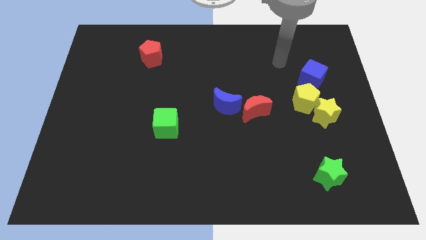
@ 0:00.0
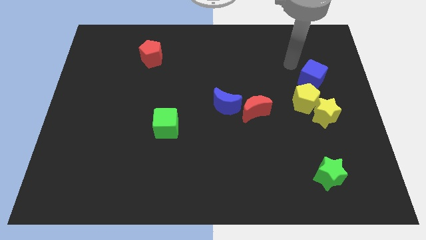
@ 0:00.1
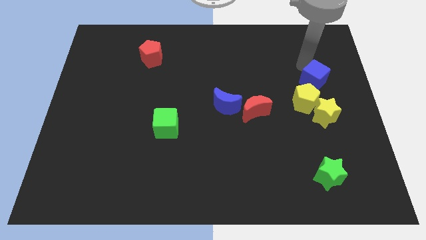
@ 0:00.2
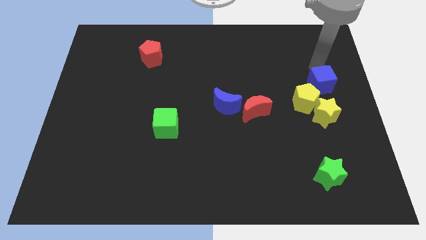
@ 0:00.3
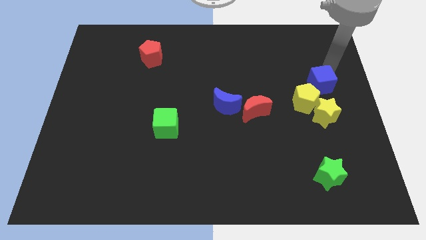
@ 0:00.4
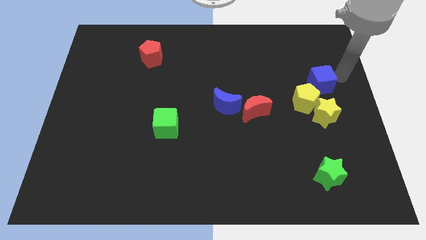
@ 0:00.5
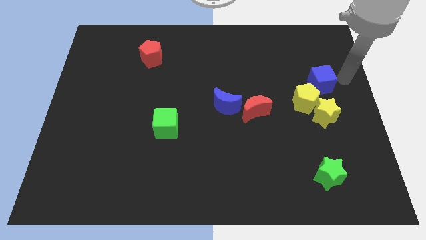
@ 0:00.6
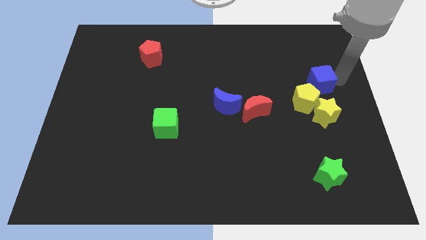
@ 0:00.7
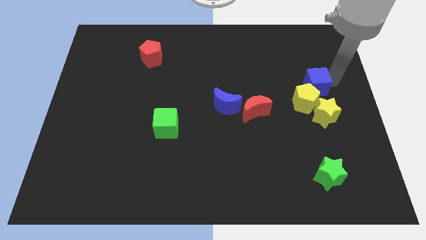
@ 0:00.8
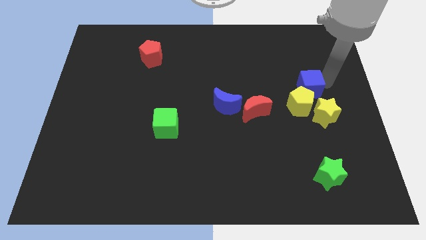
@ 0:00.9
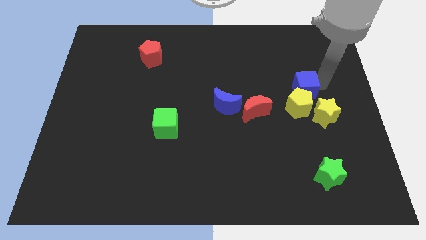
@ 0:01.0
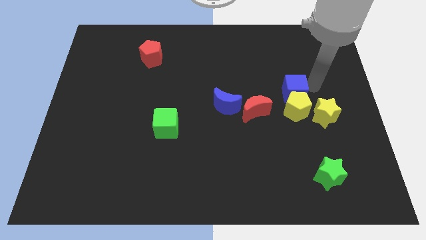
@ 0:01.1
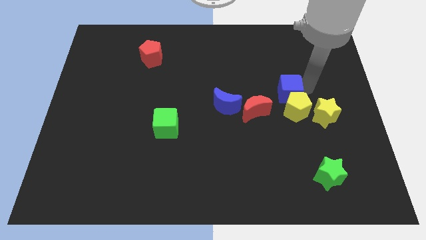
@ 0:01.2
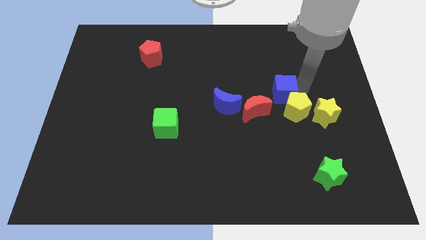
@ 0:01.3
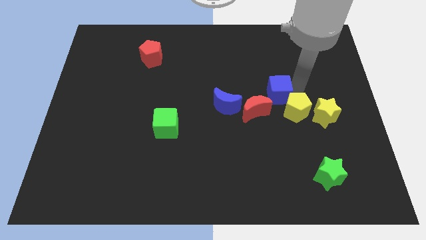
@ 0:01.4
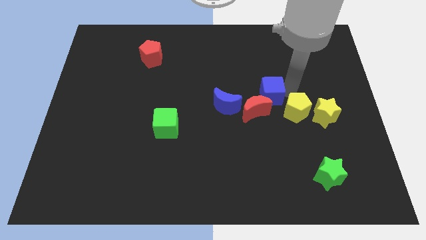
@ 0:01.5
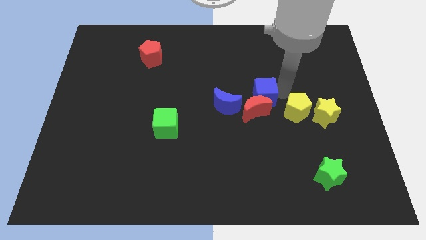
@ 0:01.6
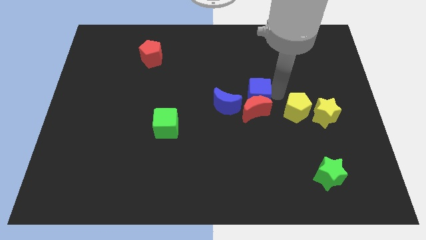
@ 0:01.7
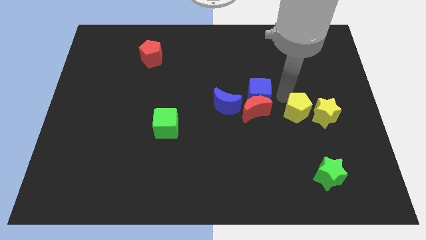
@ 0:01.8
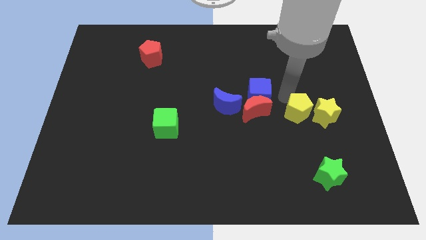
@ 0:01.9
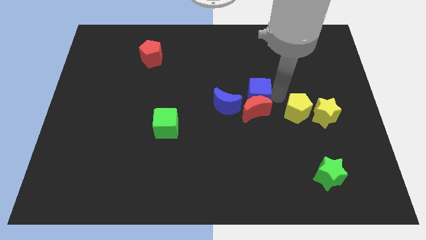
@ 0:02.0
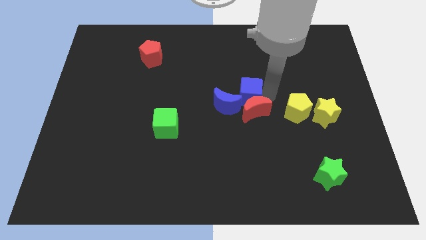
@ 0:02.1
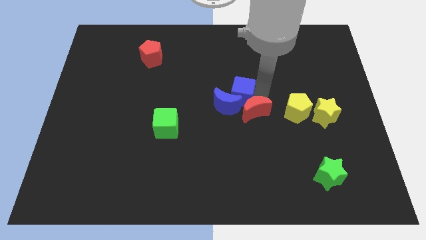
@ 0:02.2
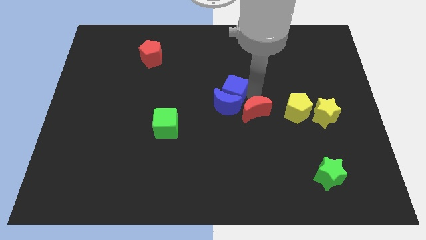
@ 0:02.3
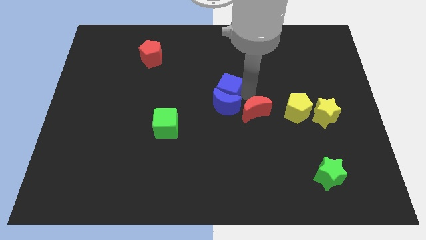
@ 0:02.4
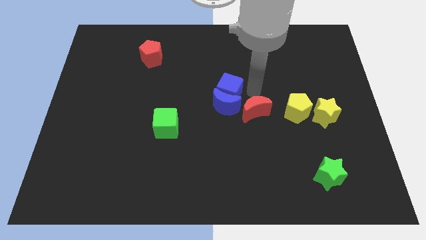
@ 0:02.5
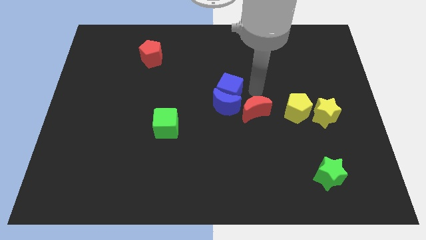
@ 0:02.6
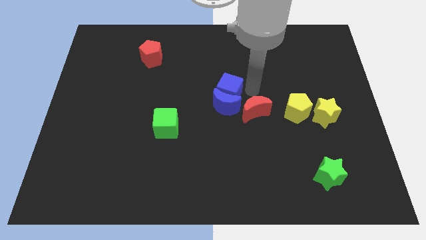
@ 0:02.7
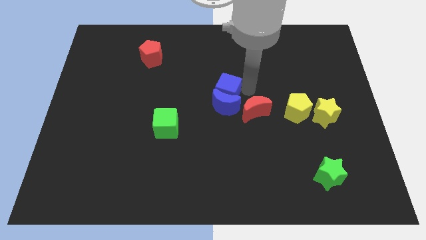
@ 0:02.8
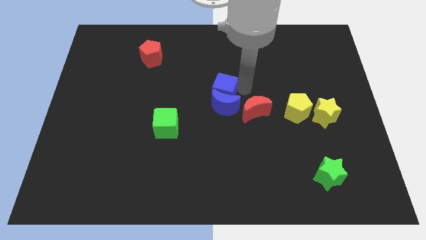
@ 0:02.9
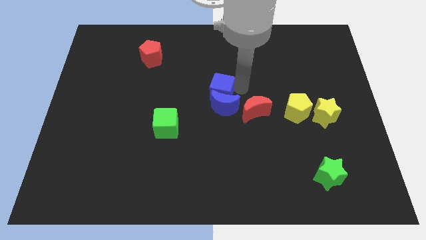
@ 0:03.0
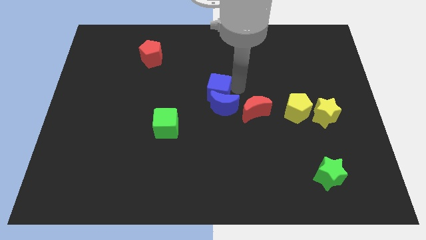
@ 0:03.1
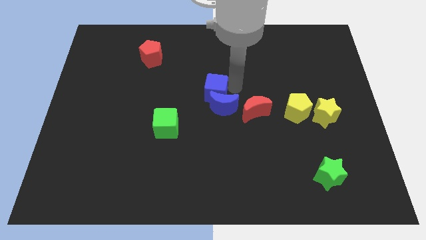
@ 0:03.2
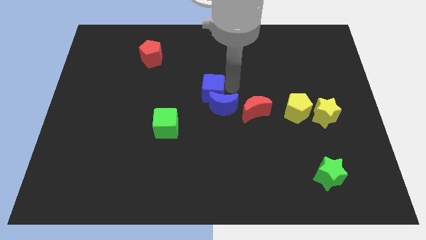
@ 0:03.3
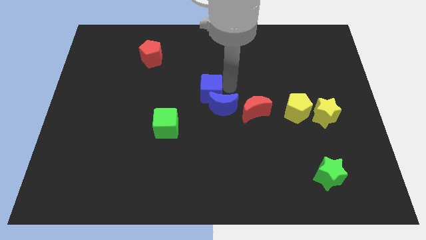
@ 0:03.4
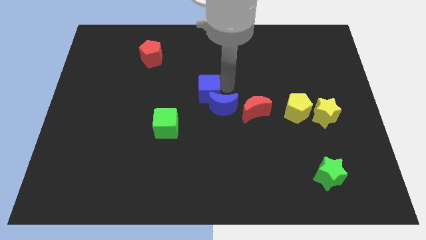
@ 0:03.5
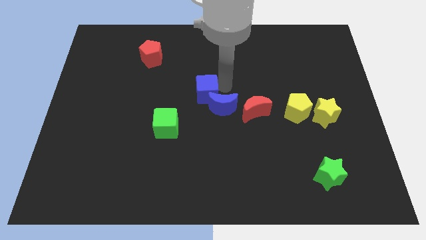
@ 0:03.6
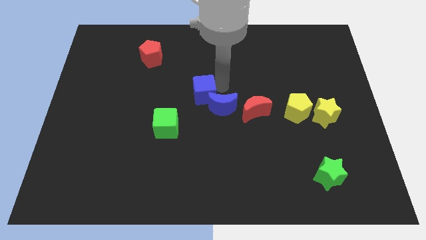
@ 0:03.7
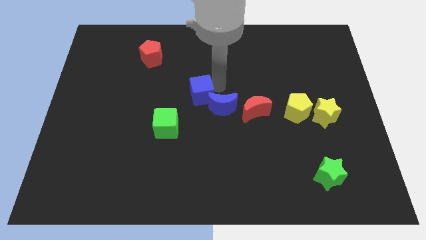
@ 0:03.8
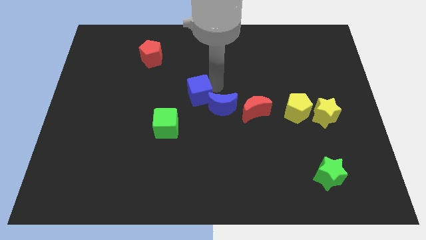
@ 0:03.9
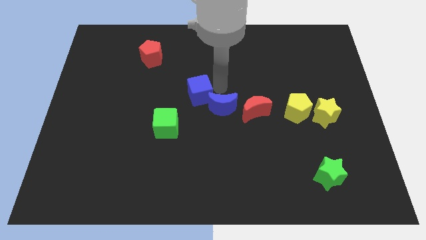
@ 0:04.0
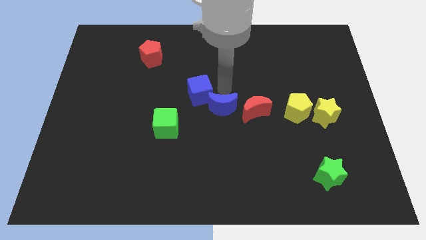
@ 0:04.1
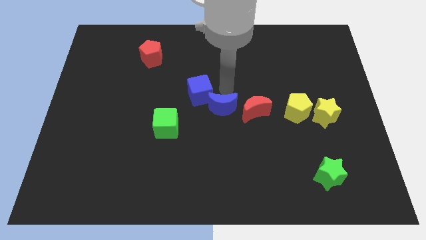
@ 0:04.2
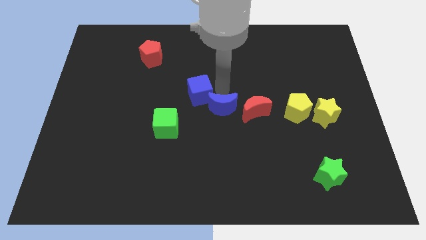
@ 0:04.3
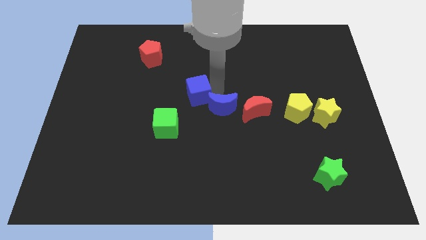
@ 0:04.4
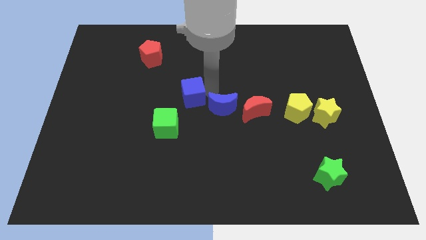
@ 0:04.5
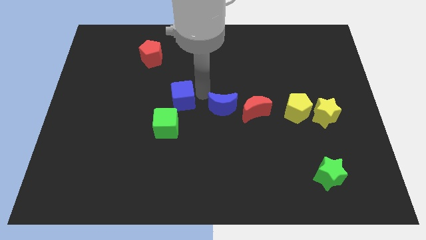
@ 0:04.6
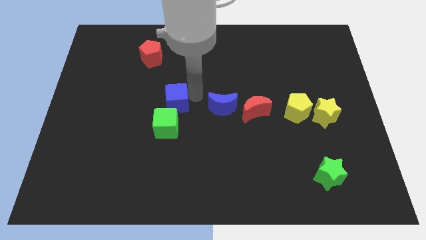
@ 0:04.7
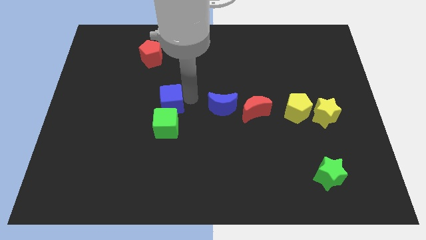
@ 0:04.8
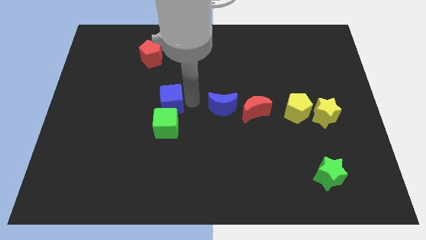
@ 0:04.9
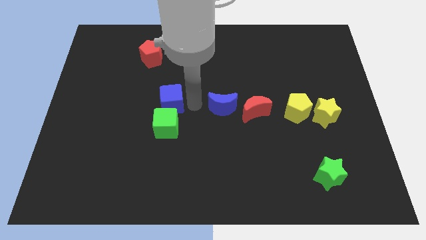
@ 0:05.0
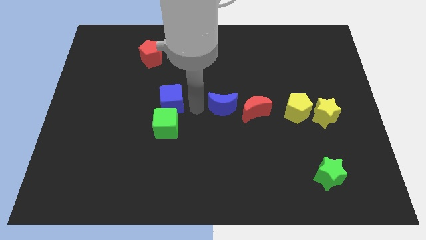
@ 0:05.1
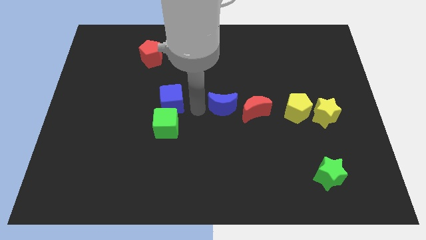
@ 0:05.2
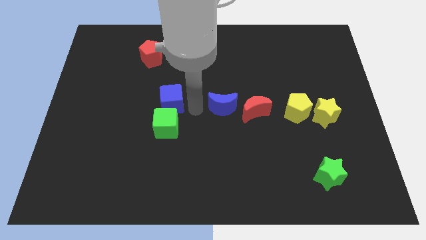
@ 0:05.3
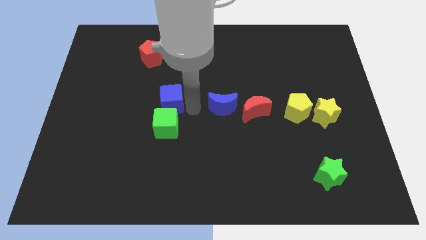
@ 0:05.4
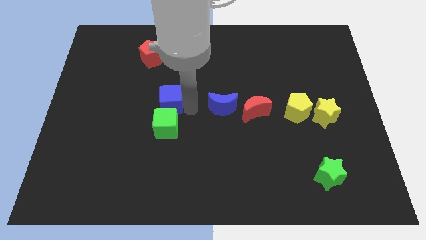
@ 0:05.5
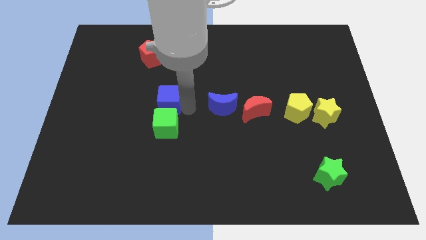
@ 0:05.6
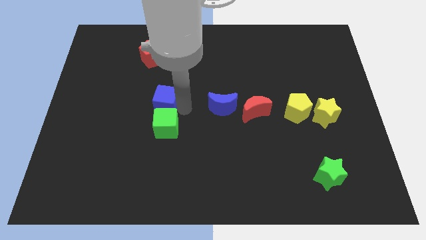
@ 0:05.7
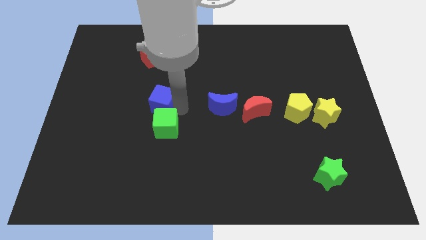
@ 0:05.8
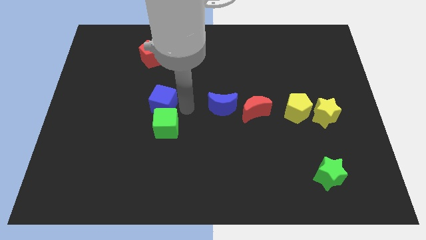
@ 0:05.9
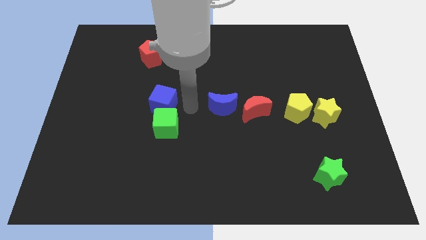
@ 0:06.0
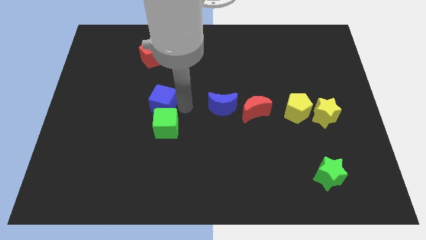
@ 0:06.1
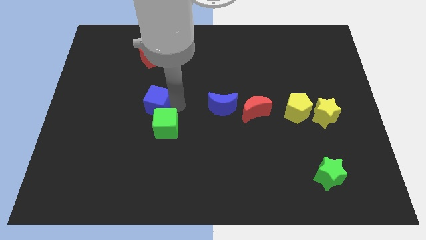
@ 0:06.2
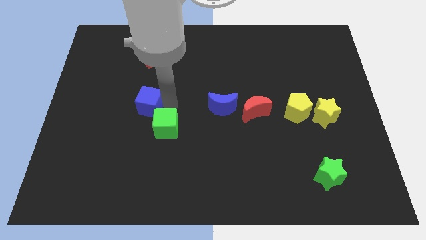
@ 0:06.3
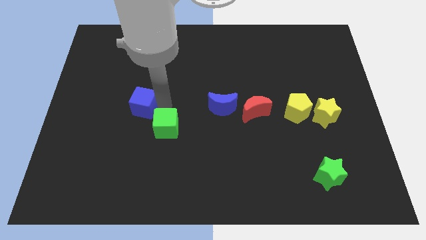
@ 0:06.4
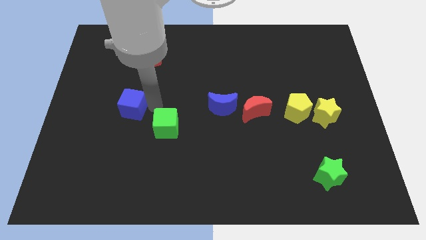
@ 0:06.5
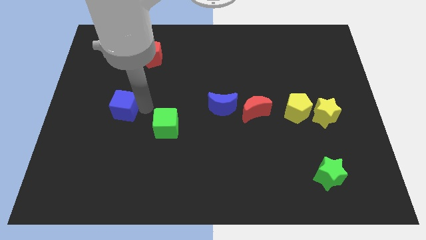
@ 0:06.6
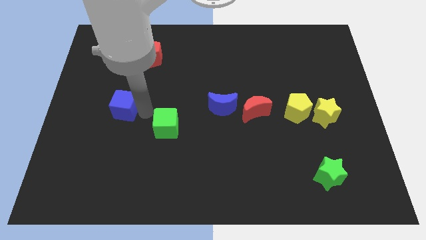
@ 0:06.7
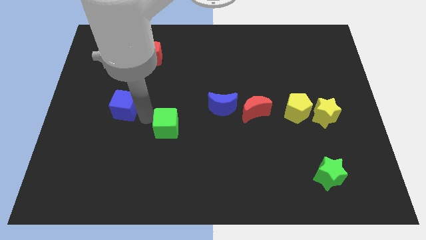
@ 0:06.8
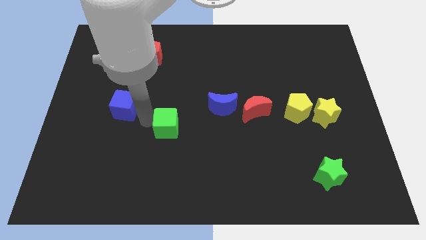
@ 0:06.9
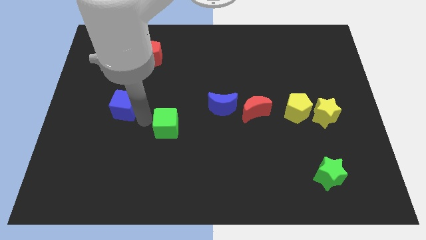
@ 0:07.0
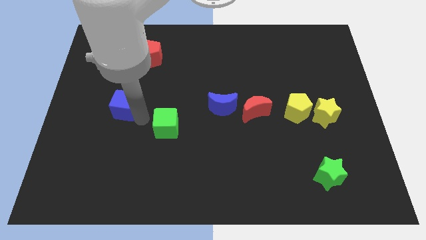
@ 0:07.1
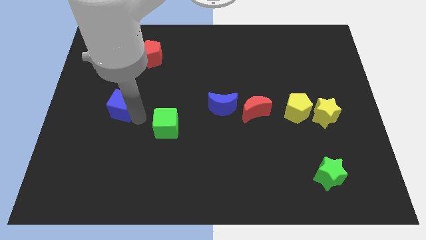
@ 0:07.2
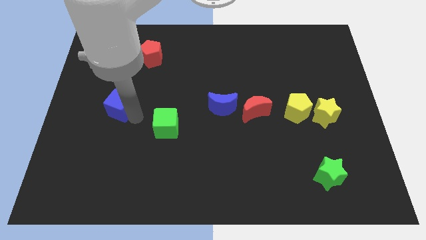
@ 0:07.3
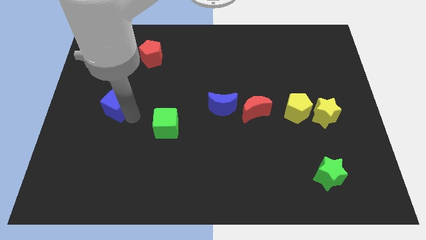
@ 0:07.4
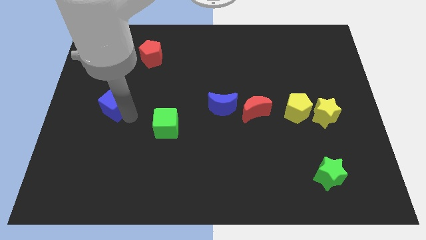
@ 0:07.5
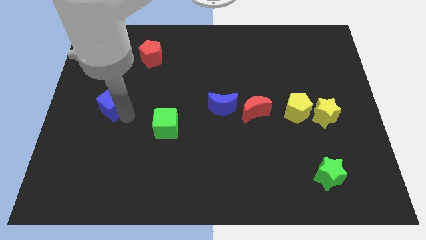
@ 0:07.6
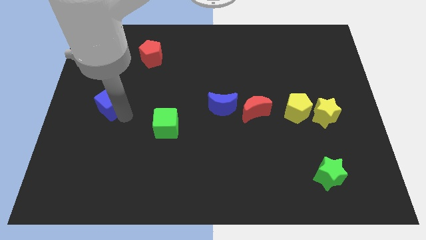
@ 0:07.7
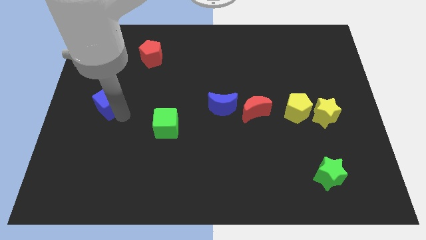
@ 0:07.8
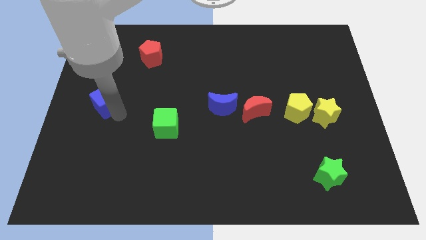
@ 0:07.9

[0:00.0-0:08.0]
move the blue cube to the left side of the board
